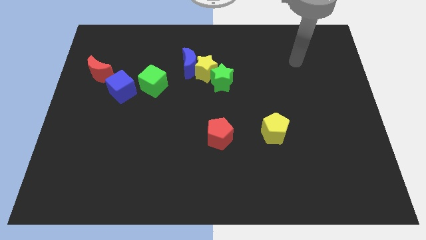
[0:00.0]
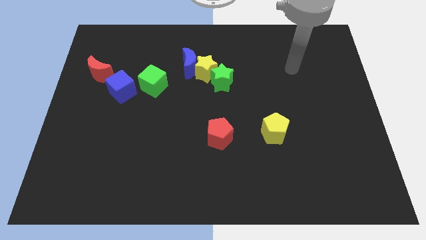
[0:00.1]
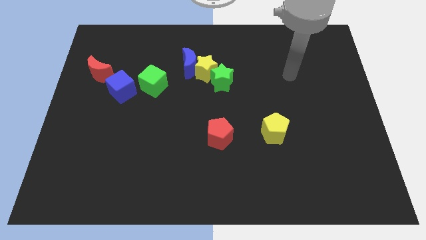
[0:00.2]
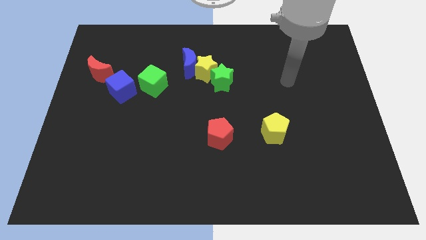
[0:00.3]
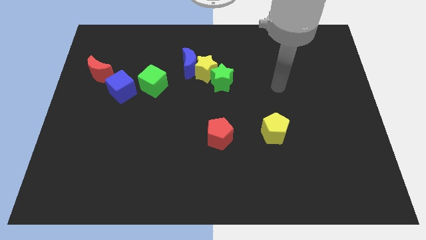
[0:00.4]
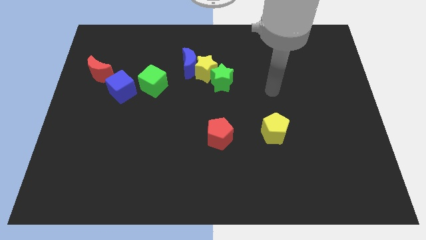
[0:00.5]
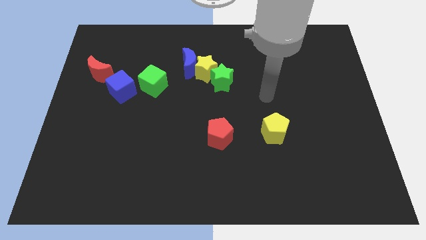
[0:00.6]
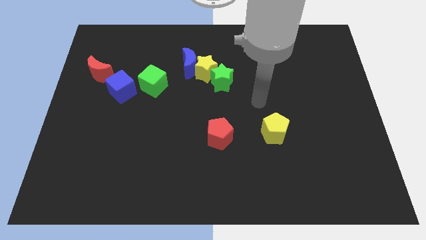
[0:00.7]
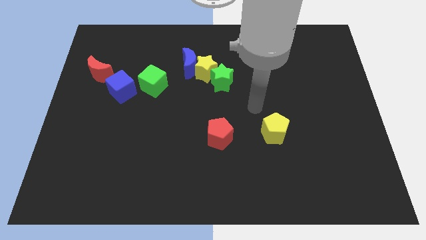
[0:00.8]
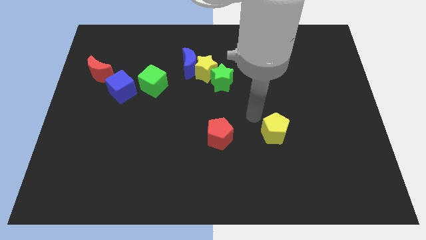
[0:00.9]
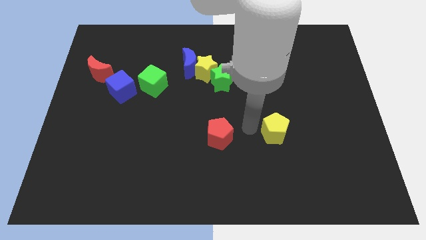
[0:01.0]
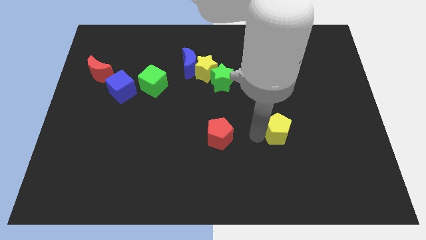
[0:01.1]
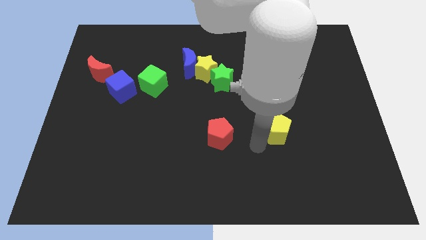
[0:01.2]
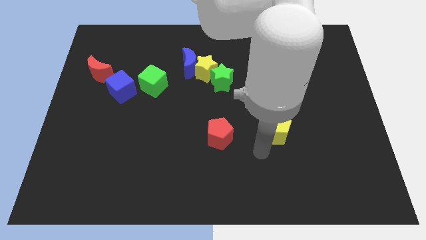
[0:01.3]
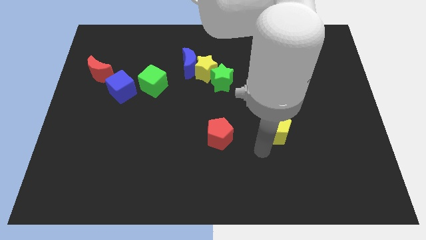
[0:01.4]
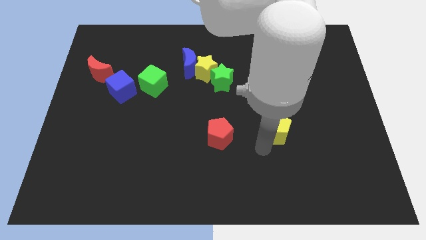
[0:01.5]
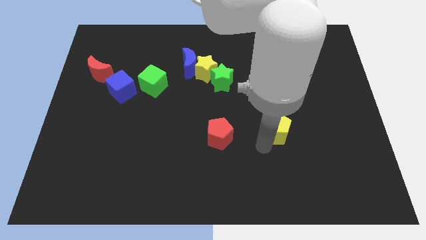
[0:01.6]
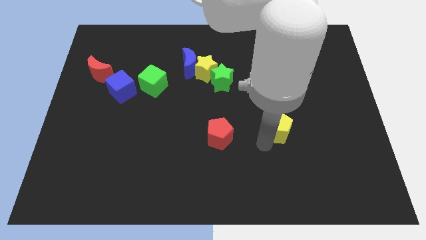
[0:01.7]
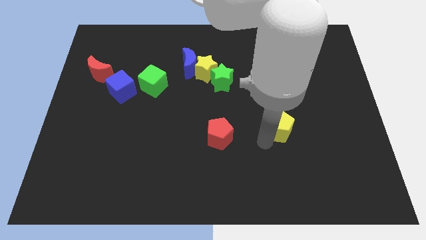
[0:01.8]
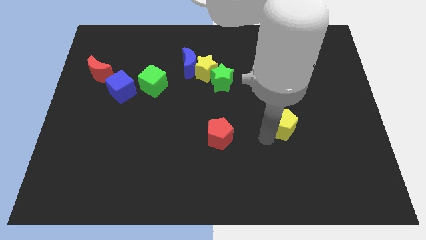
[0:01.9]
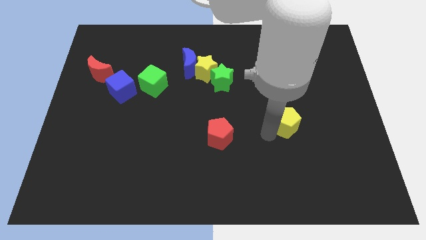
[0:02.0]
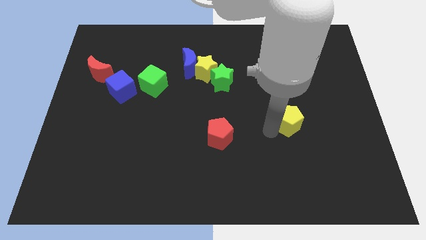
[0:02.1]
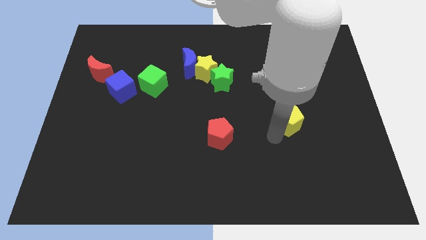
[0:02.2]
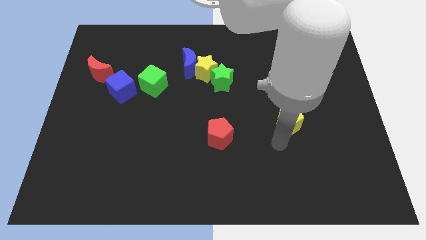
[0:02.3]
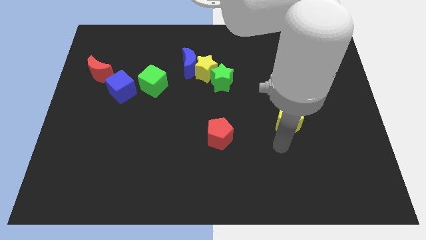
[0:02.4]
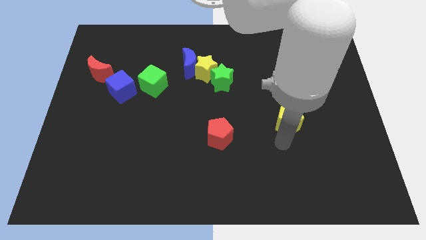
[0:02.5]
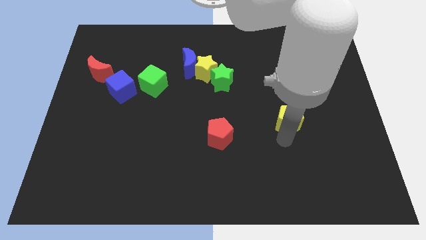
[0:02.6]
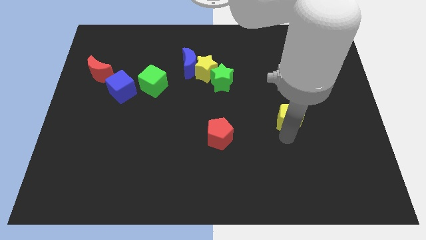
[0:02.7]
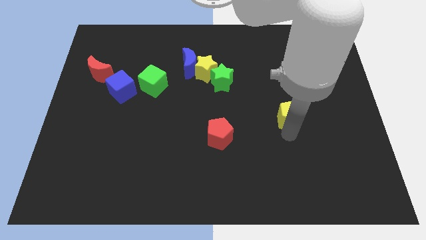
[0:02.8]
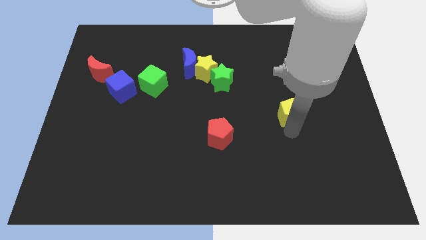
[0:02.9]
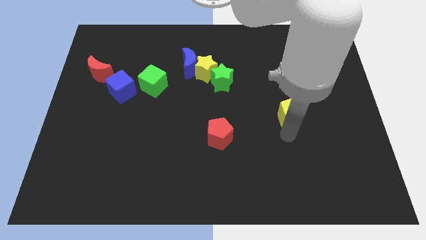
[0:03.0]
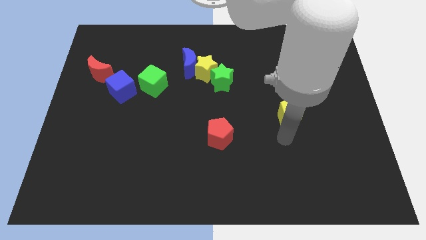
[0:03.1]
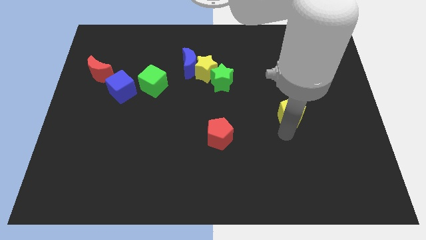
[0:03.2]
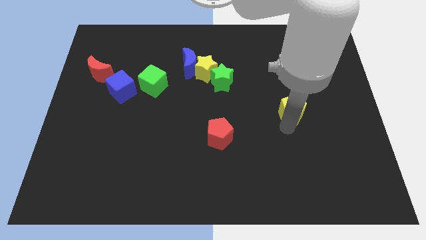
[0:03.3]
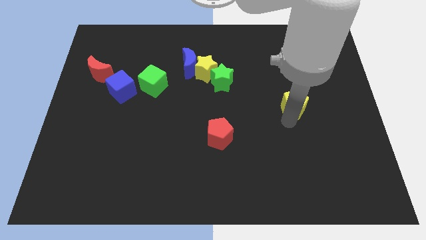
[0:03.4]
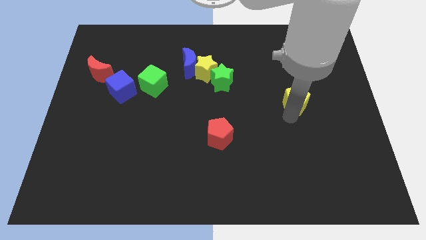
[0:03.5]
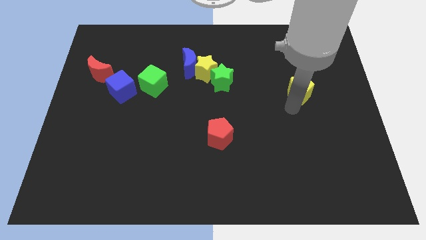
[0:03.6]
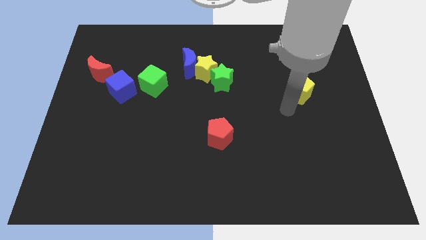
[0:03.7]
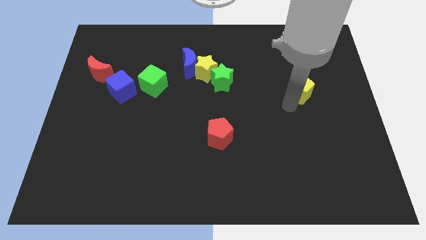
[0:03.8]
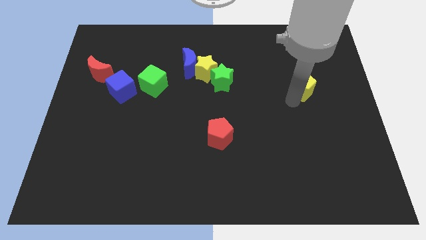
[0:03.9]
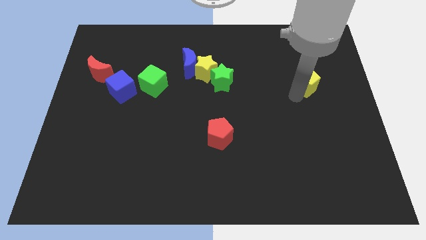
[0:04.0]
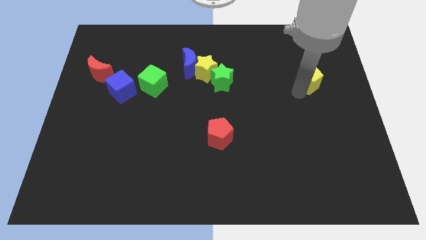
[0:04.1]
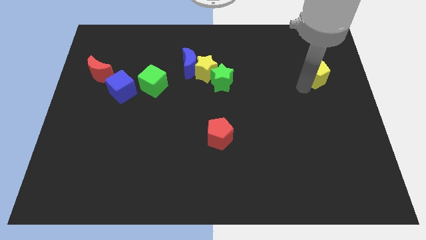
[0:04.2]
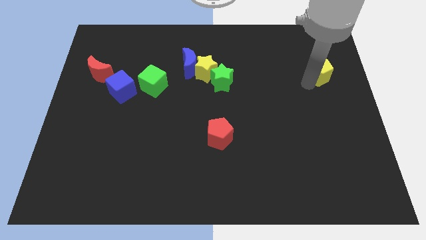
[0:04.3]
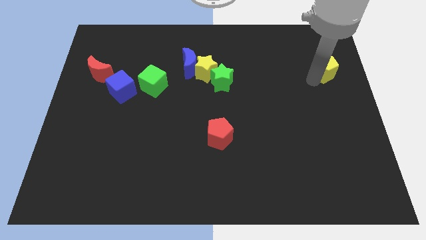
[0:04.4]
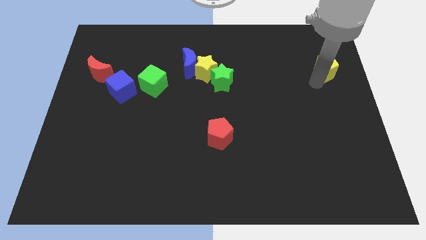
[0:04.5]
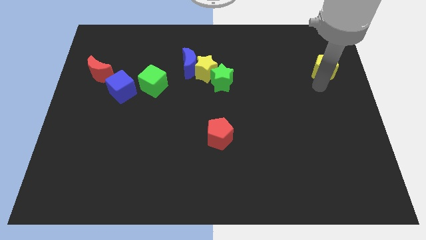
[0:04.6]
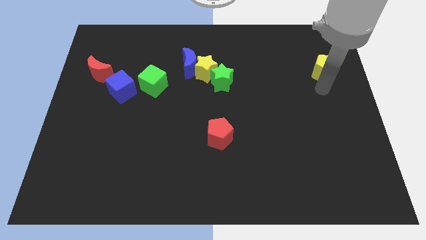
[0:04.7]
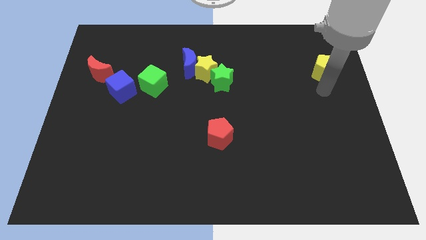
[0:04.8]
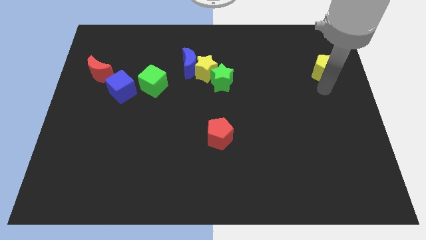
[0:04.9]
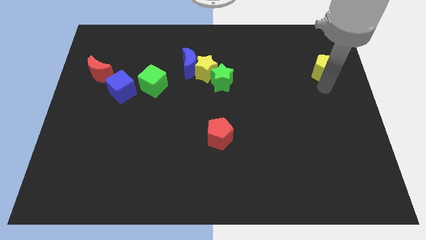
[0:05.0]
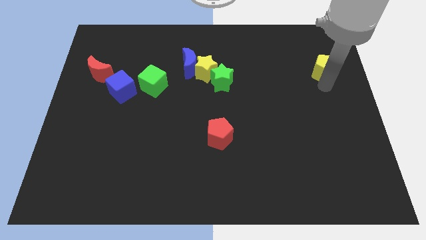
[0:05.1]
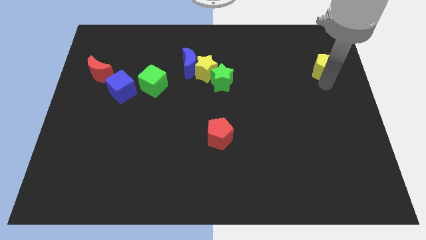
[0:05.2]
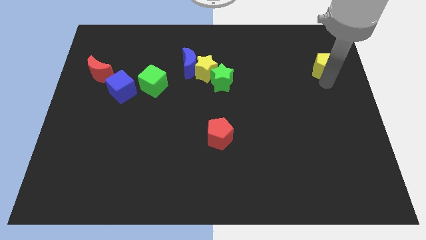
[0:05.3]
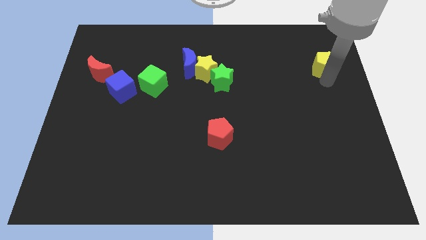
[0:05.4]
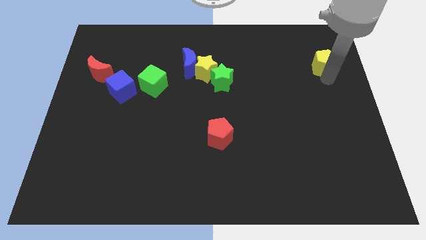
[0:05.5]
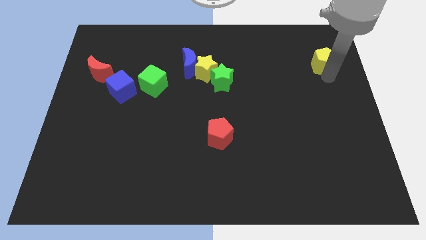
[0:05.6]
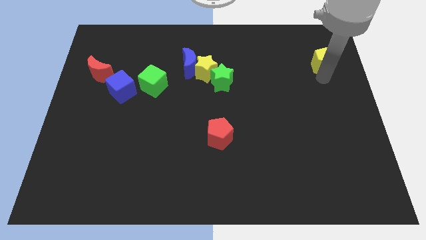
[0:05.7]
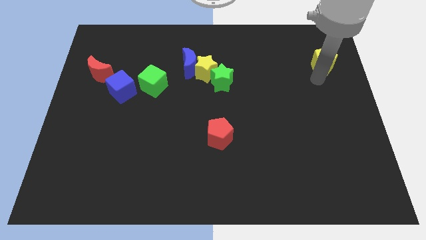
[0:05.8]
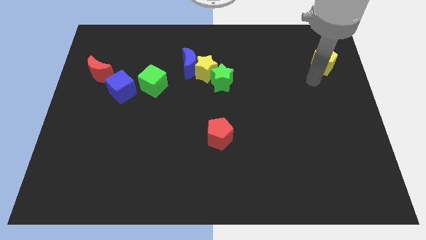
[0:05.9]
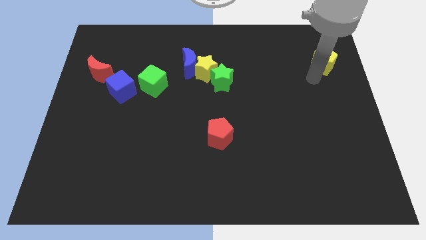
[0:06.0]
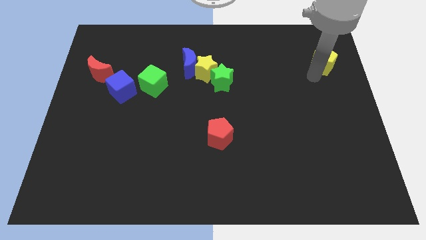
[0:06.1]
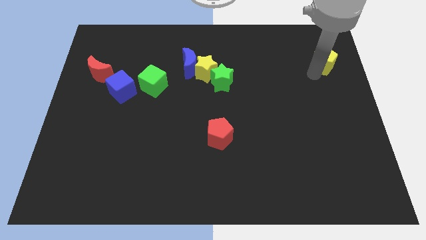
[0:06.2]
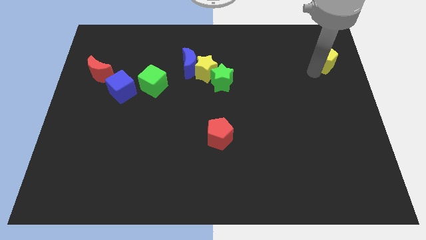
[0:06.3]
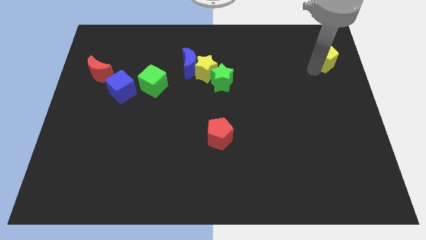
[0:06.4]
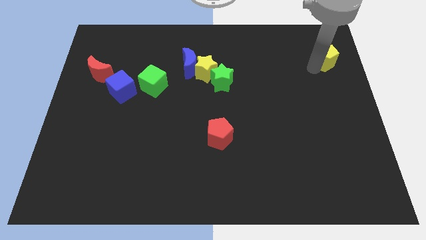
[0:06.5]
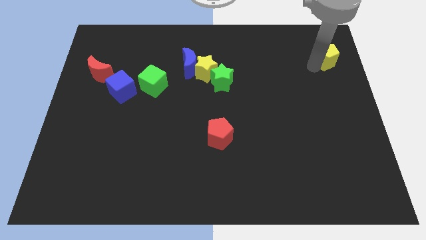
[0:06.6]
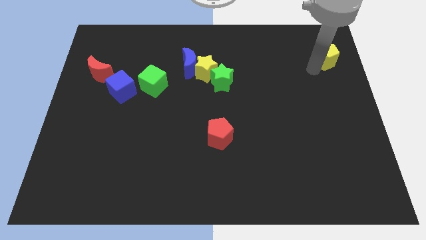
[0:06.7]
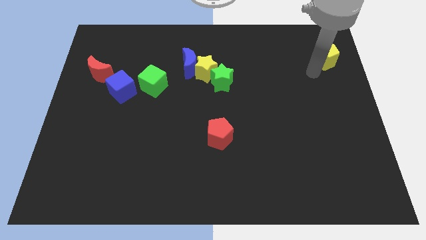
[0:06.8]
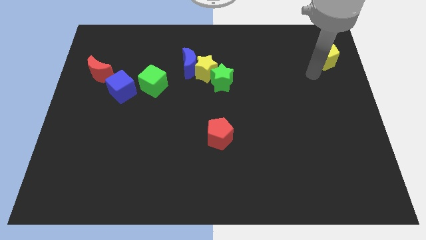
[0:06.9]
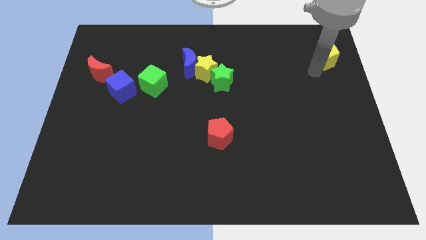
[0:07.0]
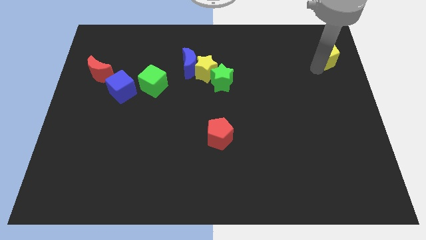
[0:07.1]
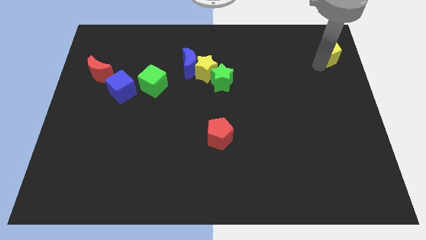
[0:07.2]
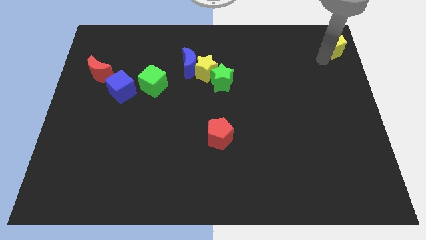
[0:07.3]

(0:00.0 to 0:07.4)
slide the yellow pentagon to the top right of the board
